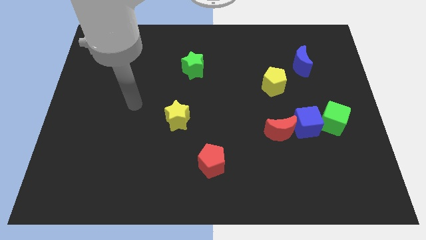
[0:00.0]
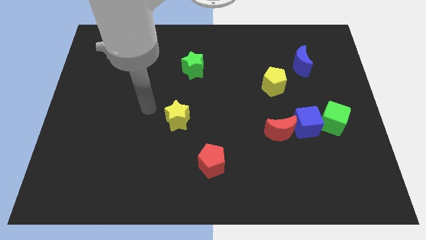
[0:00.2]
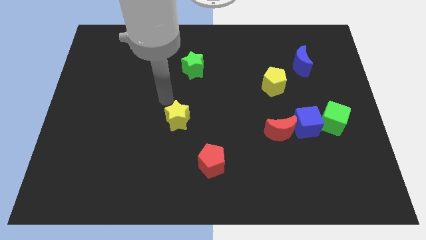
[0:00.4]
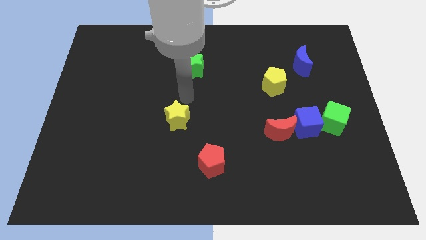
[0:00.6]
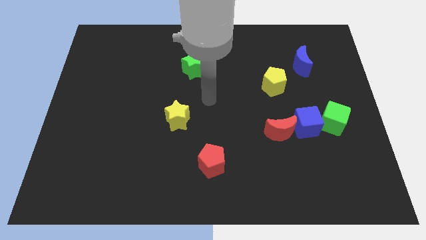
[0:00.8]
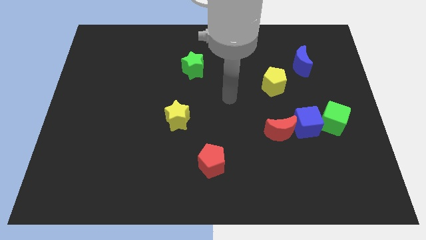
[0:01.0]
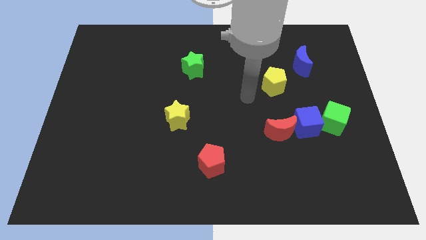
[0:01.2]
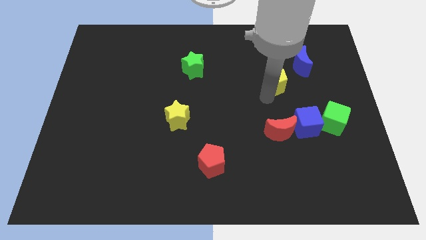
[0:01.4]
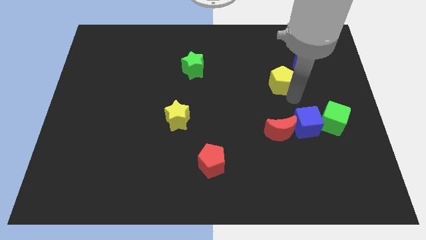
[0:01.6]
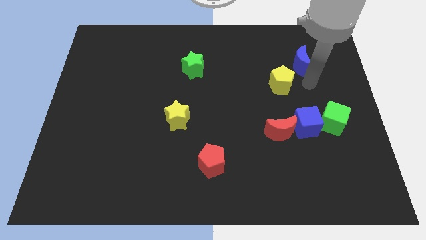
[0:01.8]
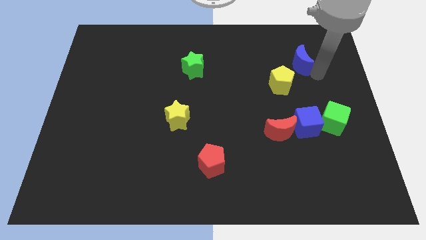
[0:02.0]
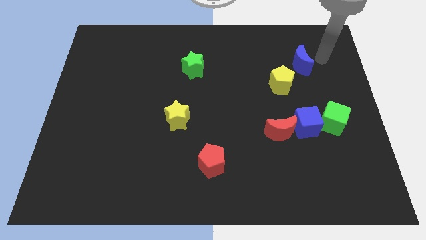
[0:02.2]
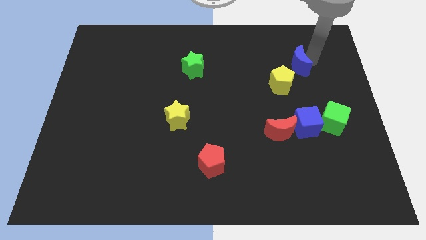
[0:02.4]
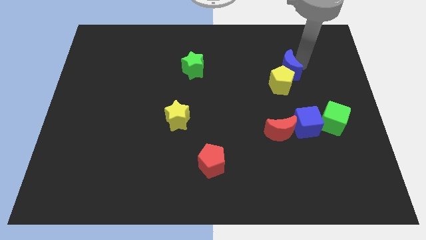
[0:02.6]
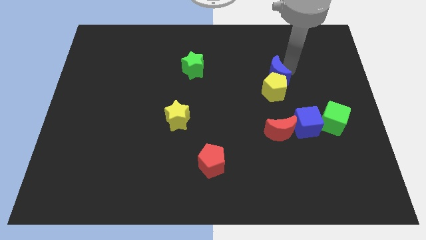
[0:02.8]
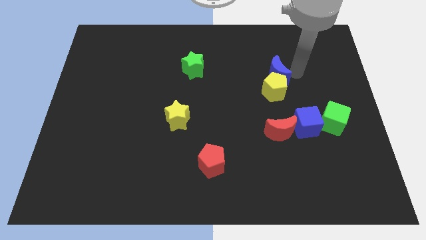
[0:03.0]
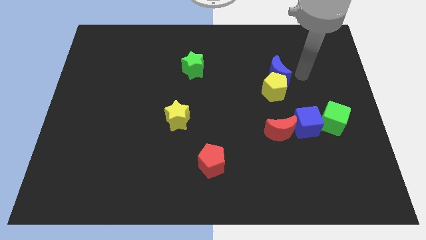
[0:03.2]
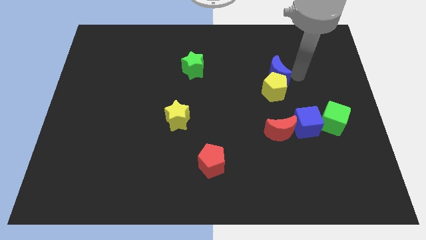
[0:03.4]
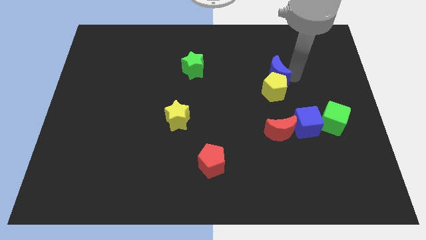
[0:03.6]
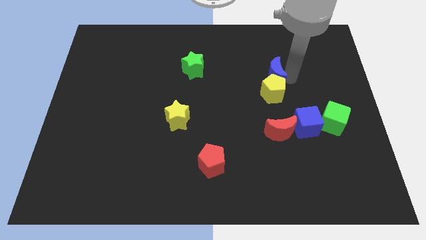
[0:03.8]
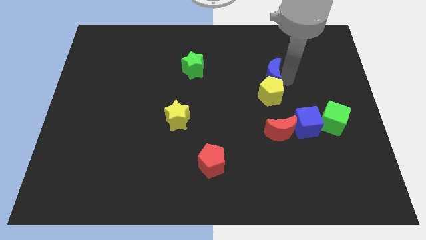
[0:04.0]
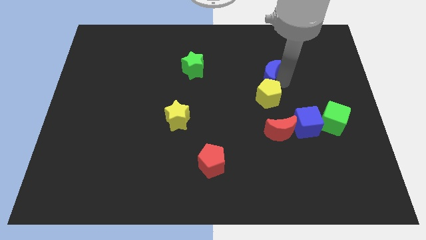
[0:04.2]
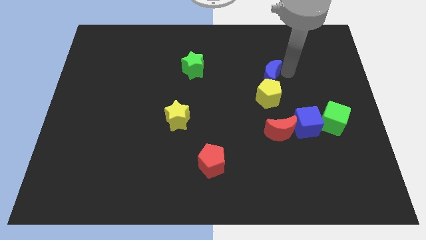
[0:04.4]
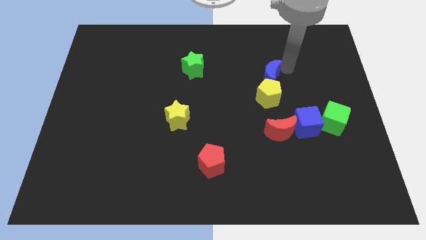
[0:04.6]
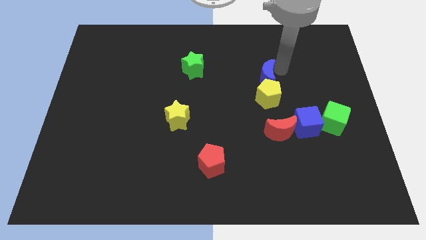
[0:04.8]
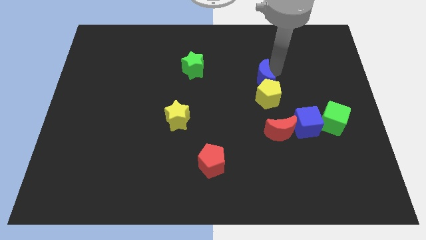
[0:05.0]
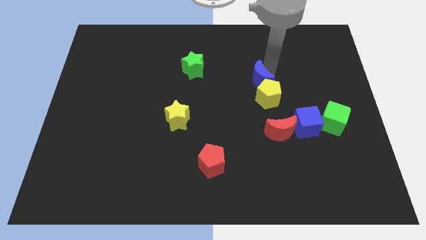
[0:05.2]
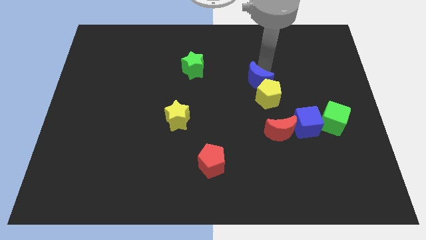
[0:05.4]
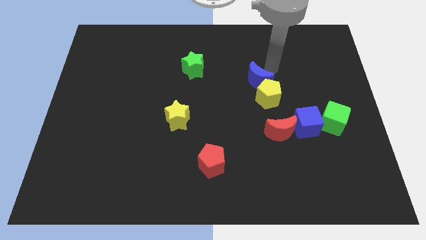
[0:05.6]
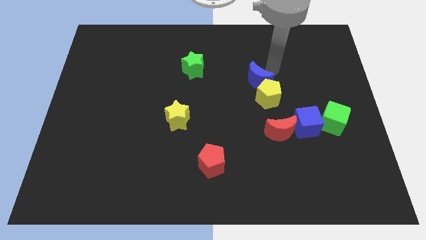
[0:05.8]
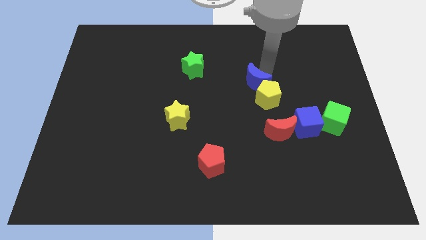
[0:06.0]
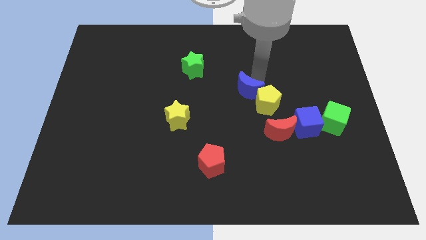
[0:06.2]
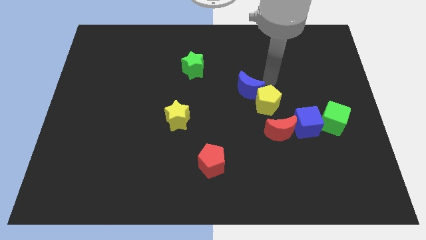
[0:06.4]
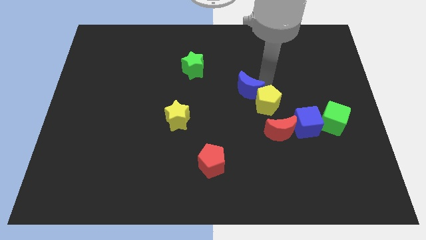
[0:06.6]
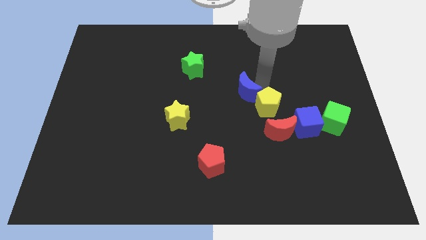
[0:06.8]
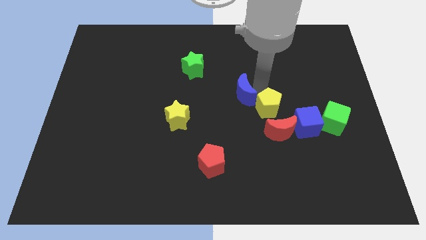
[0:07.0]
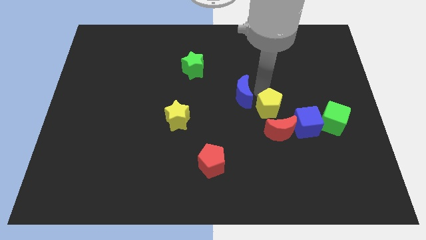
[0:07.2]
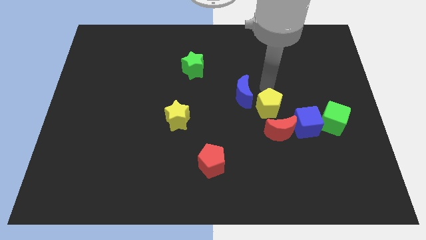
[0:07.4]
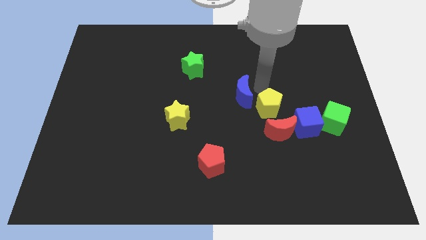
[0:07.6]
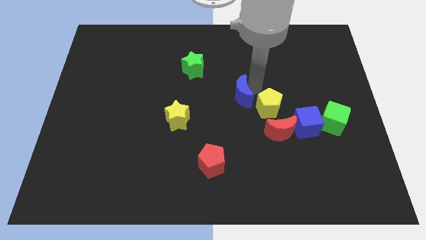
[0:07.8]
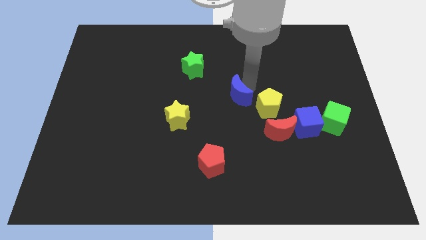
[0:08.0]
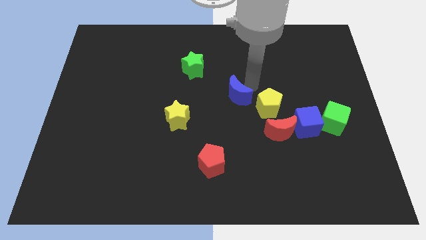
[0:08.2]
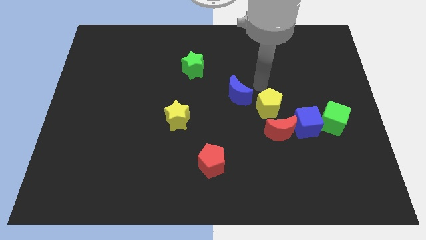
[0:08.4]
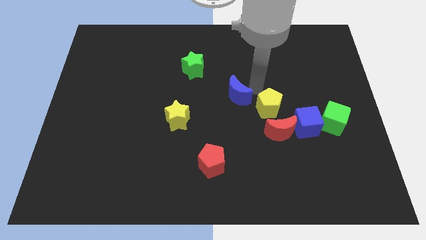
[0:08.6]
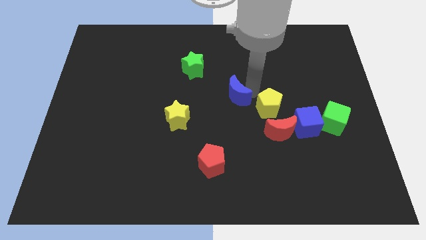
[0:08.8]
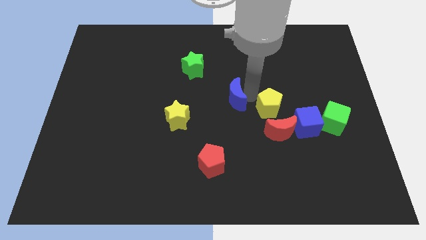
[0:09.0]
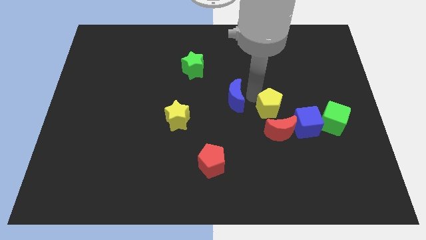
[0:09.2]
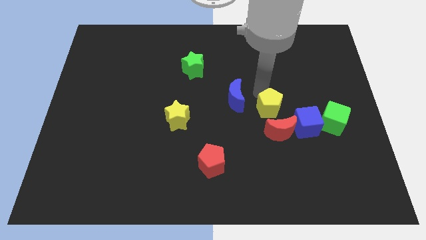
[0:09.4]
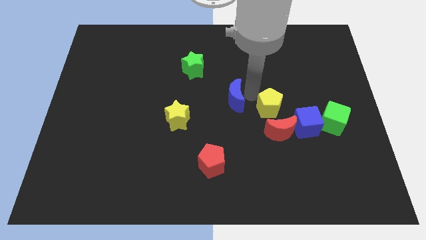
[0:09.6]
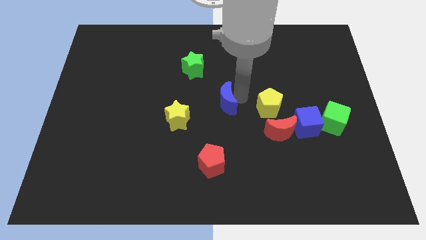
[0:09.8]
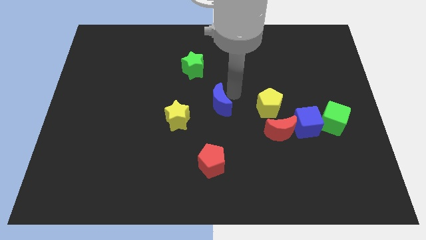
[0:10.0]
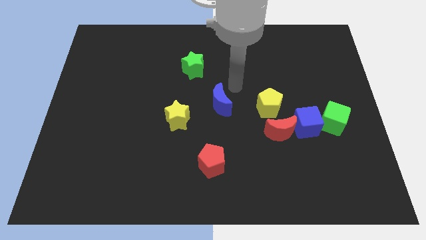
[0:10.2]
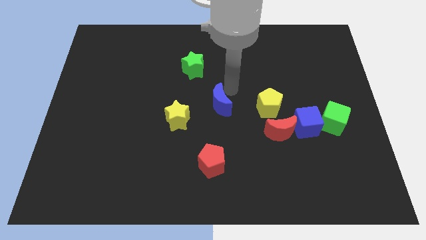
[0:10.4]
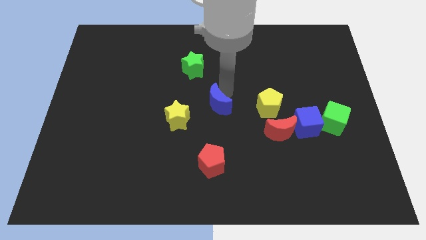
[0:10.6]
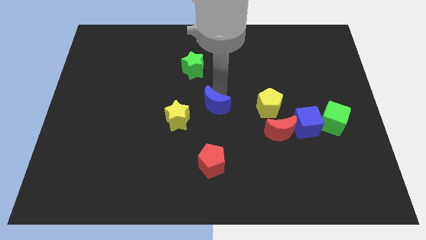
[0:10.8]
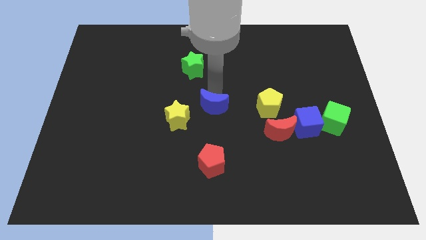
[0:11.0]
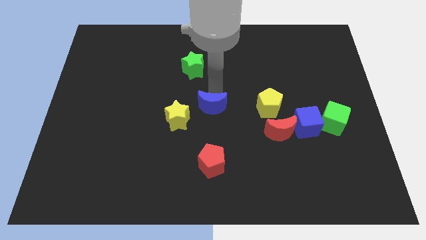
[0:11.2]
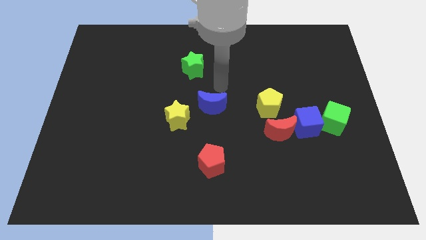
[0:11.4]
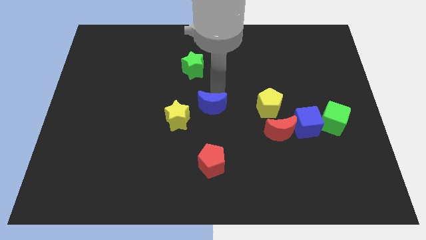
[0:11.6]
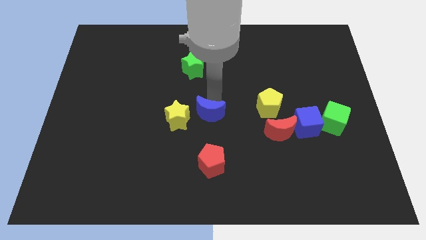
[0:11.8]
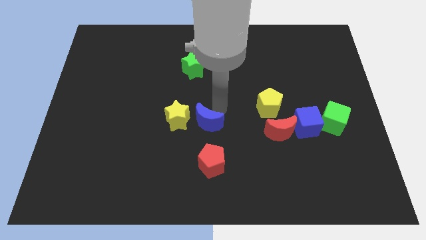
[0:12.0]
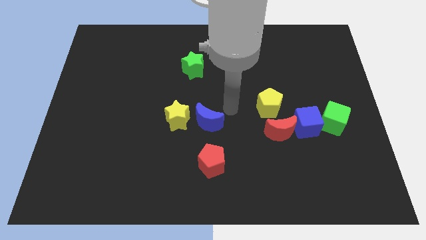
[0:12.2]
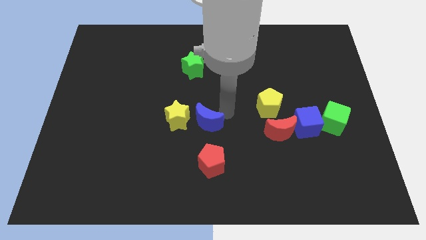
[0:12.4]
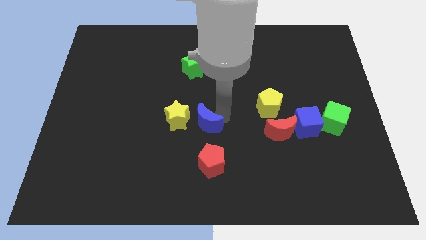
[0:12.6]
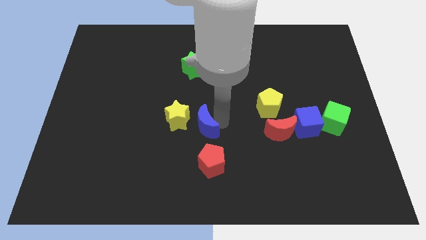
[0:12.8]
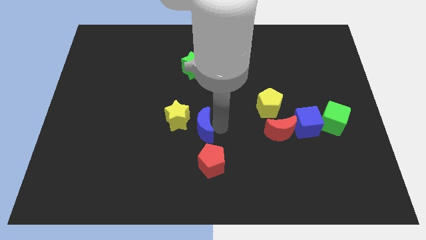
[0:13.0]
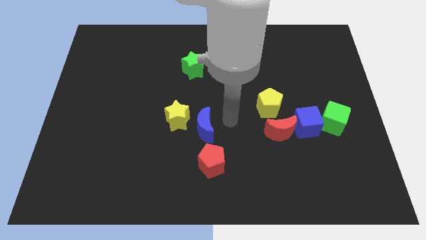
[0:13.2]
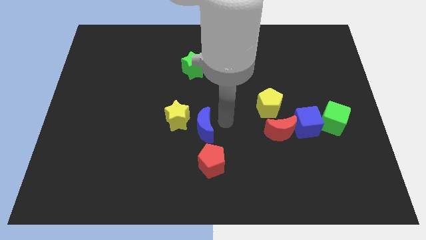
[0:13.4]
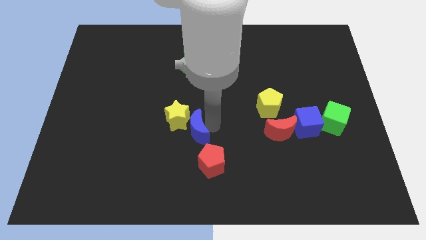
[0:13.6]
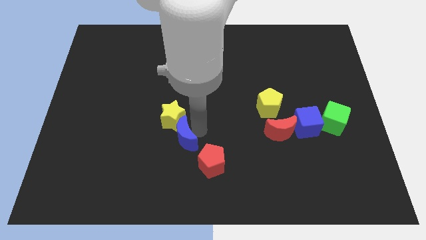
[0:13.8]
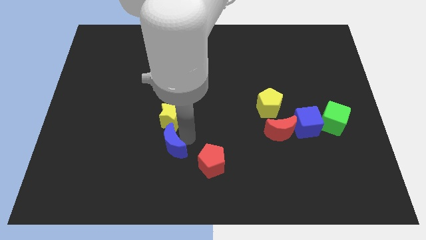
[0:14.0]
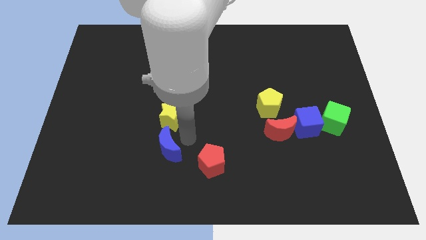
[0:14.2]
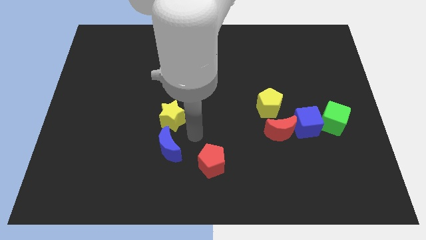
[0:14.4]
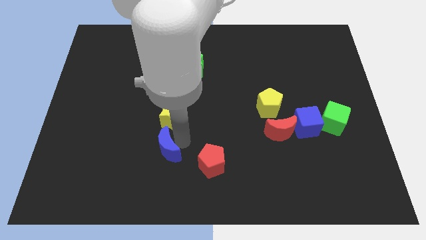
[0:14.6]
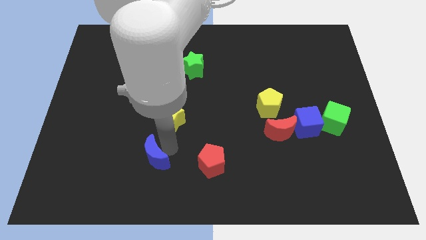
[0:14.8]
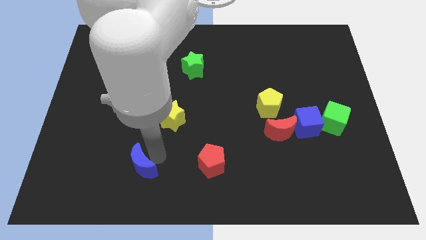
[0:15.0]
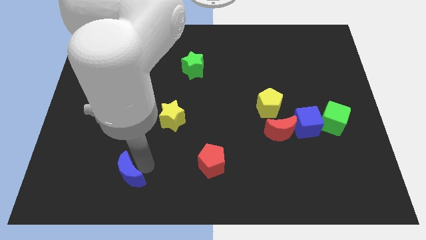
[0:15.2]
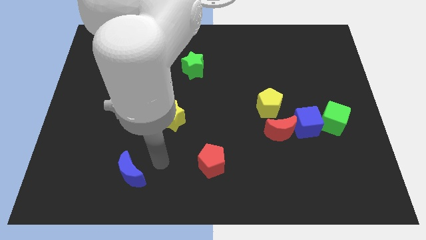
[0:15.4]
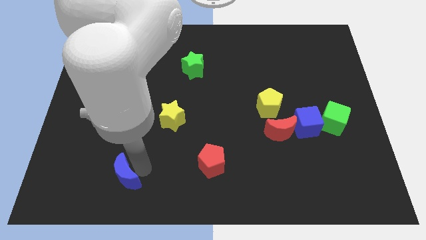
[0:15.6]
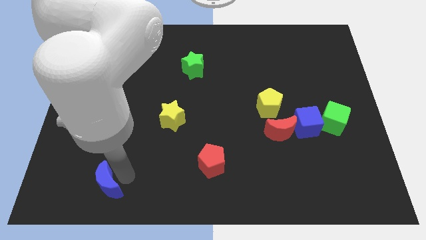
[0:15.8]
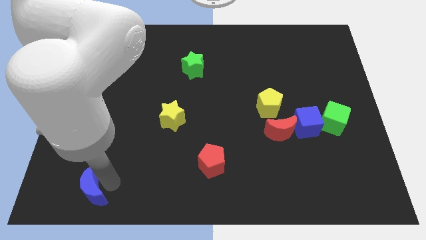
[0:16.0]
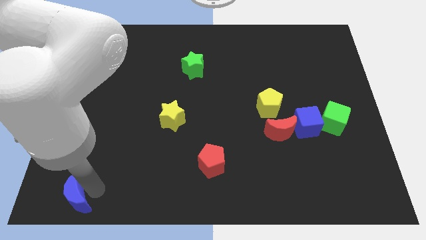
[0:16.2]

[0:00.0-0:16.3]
move the blue moon to the bottom left
